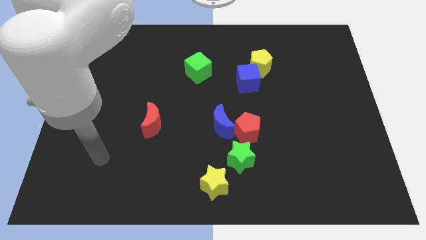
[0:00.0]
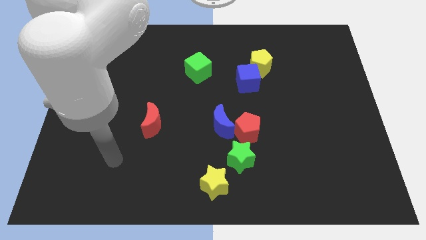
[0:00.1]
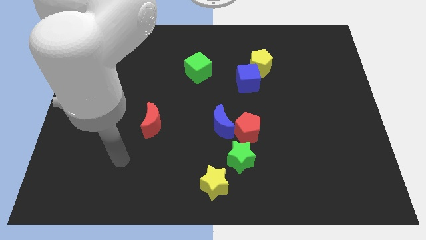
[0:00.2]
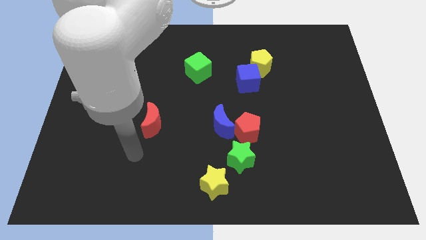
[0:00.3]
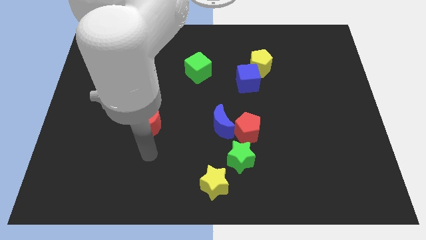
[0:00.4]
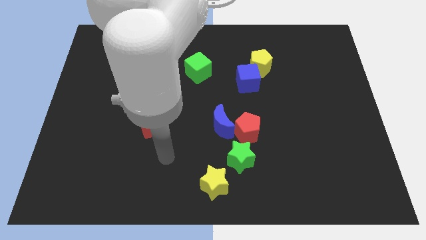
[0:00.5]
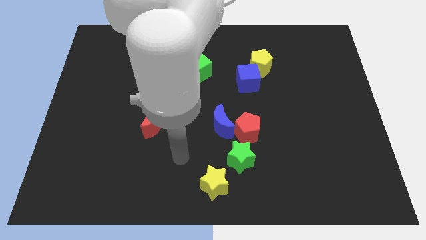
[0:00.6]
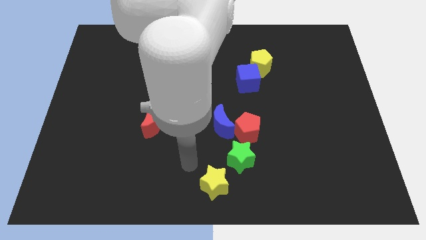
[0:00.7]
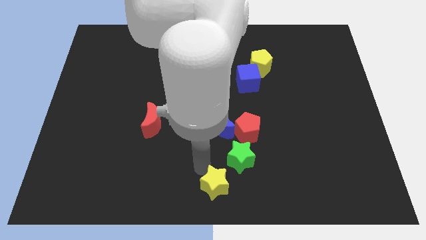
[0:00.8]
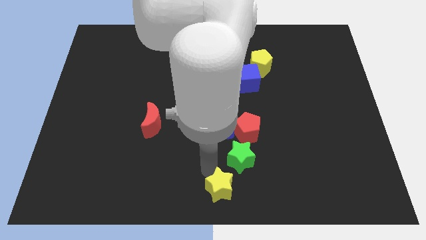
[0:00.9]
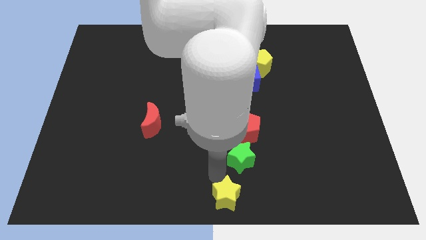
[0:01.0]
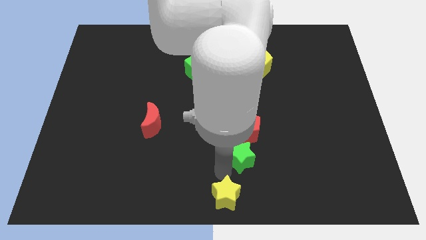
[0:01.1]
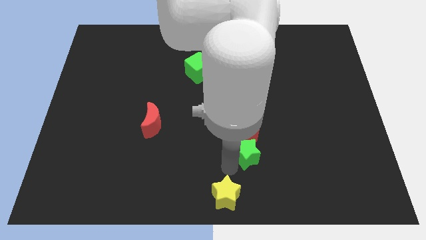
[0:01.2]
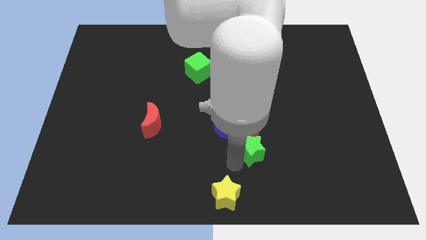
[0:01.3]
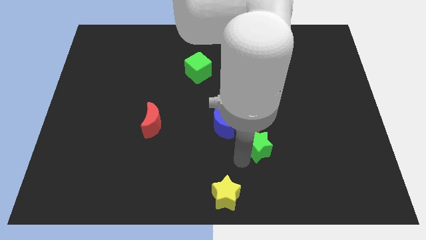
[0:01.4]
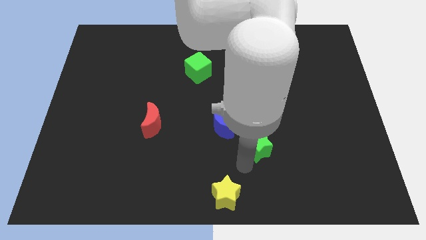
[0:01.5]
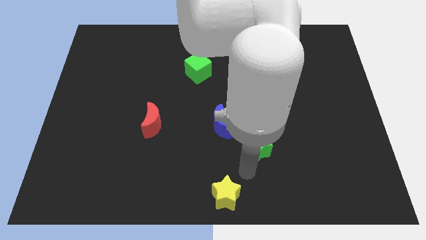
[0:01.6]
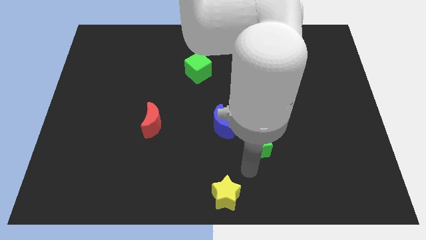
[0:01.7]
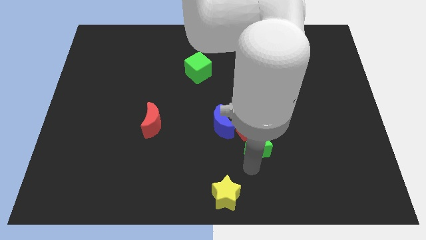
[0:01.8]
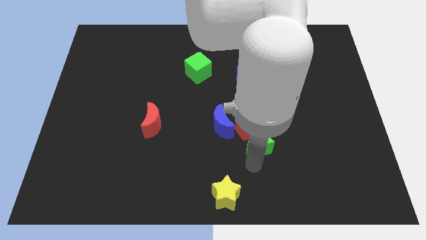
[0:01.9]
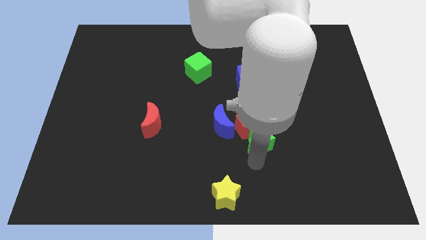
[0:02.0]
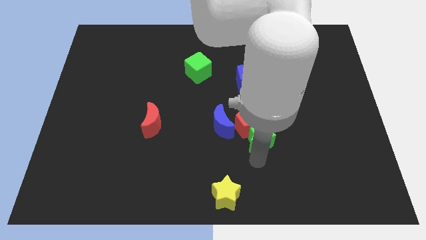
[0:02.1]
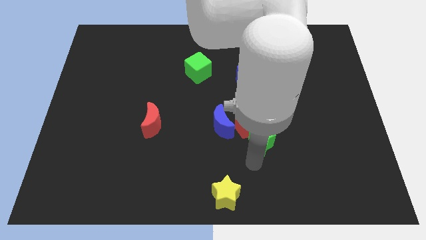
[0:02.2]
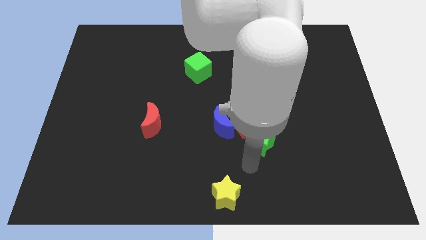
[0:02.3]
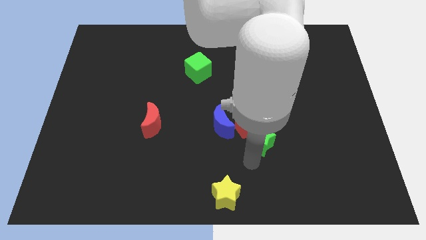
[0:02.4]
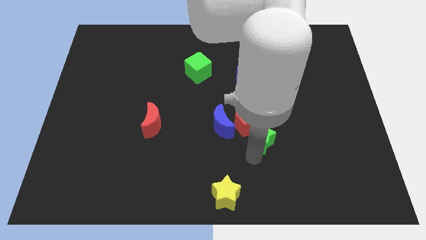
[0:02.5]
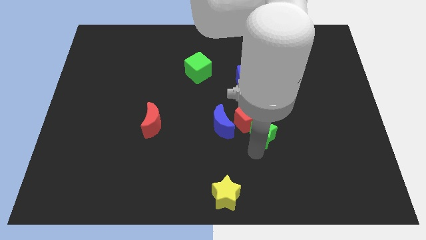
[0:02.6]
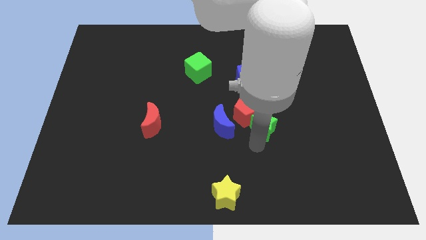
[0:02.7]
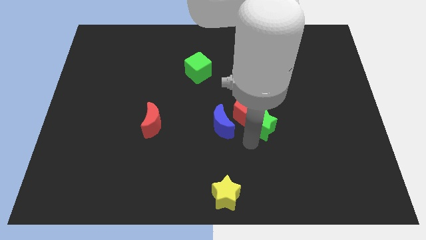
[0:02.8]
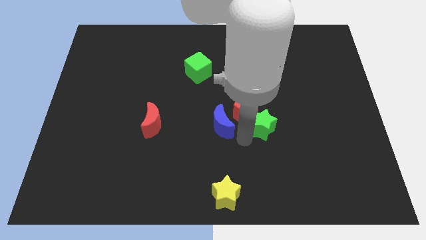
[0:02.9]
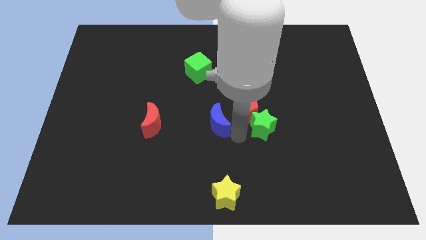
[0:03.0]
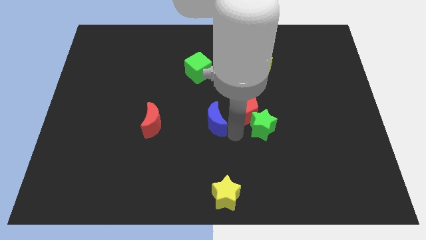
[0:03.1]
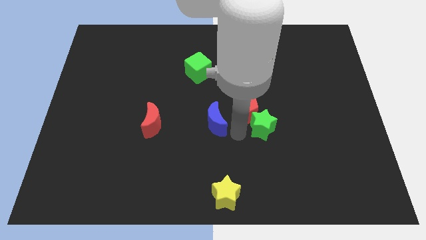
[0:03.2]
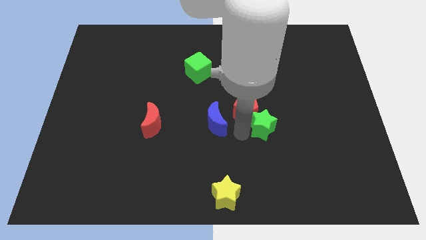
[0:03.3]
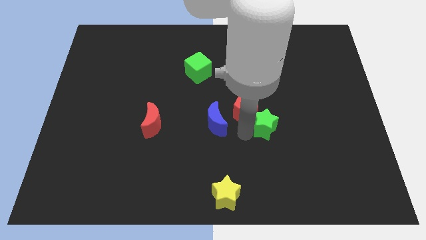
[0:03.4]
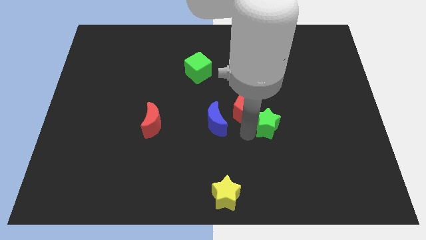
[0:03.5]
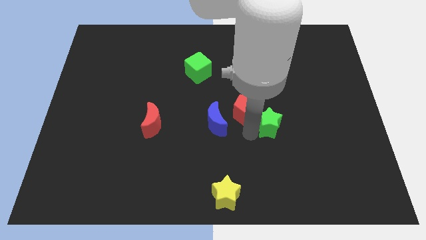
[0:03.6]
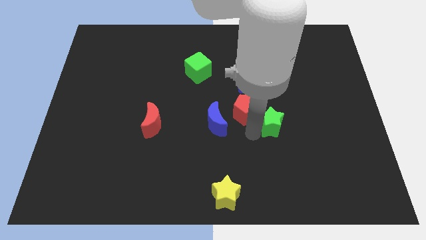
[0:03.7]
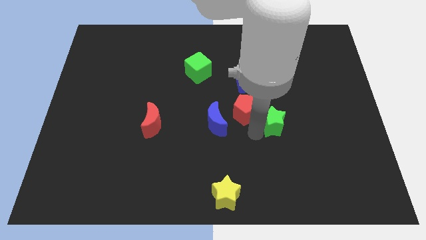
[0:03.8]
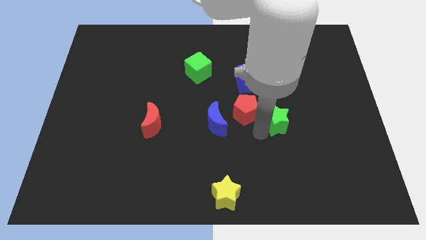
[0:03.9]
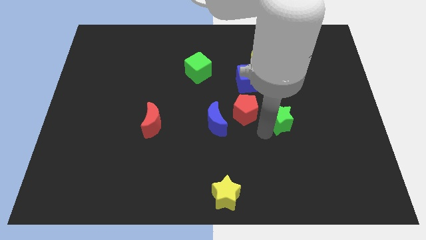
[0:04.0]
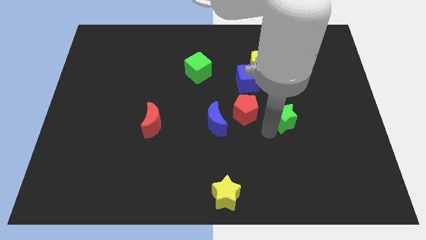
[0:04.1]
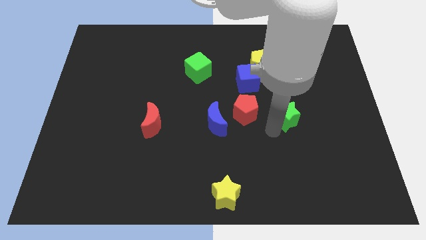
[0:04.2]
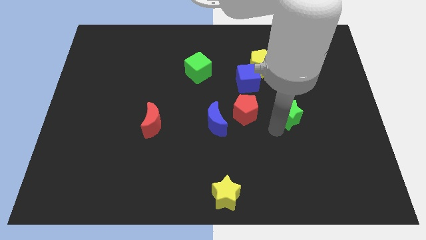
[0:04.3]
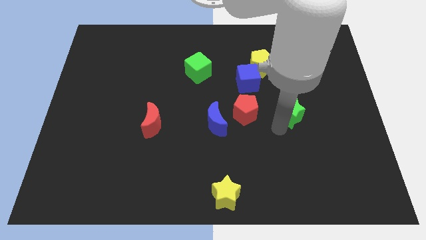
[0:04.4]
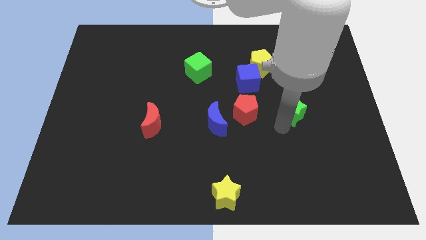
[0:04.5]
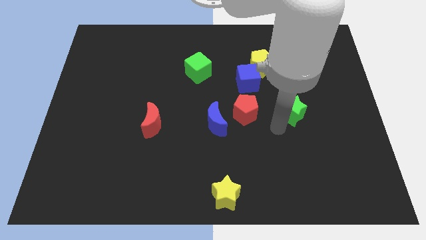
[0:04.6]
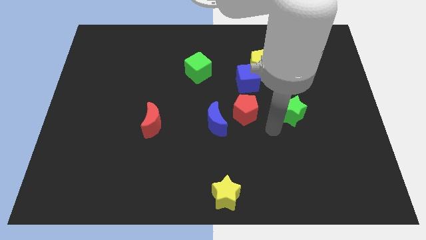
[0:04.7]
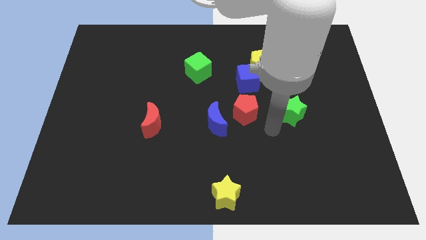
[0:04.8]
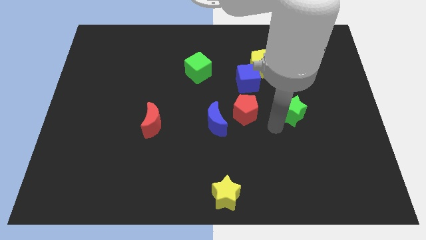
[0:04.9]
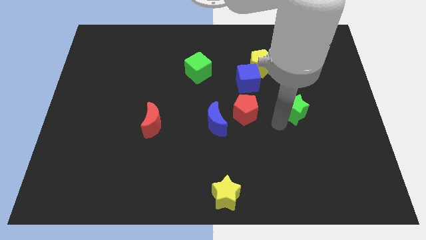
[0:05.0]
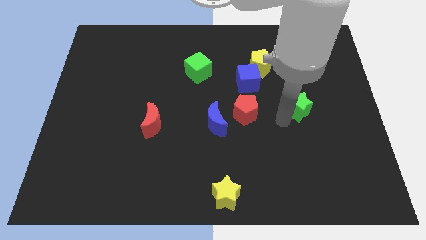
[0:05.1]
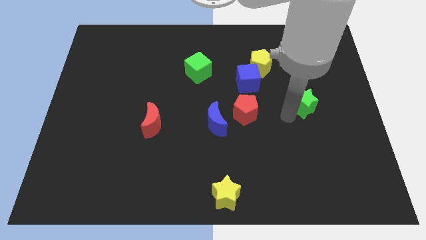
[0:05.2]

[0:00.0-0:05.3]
push the green star up and right diagonally

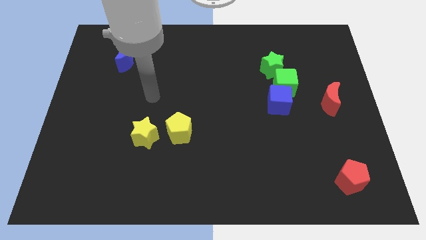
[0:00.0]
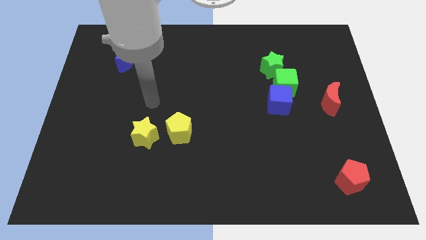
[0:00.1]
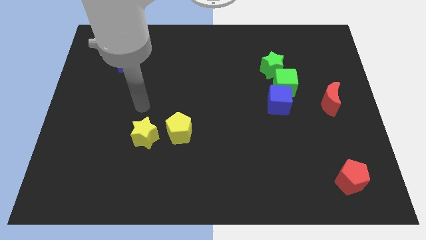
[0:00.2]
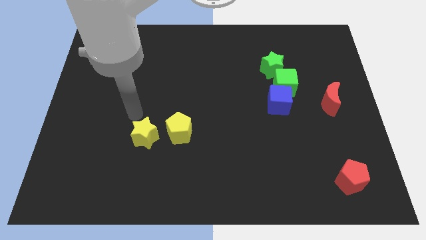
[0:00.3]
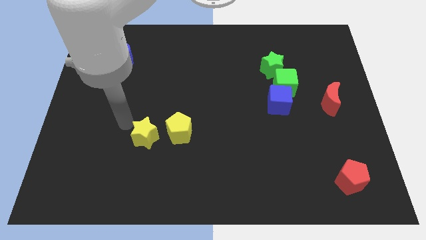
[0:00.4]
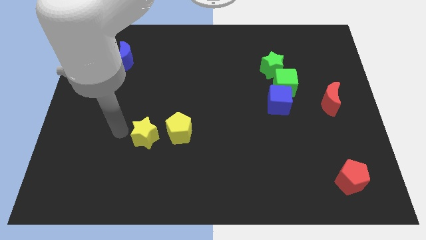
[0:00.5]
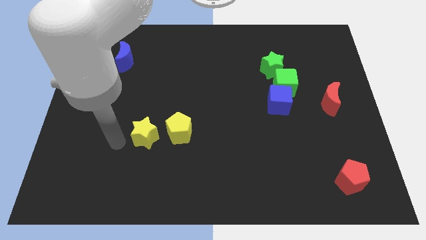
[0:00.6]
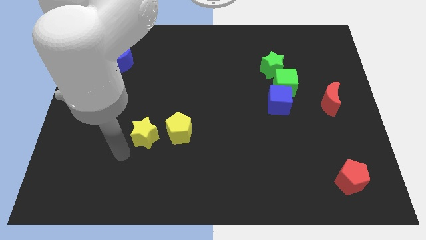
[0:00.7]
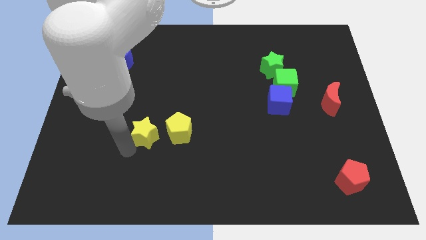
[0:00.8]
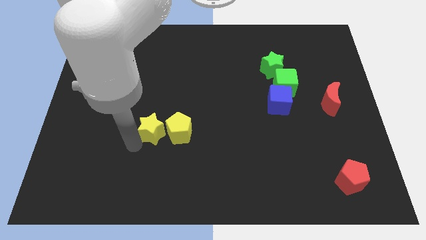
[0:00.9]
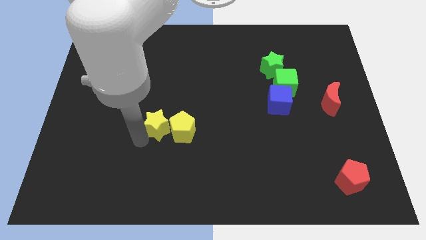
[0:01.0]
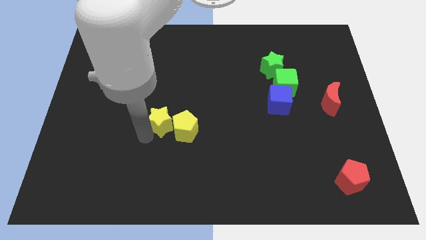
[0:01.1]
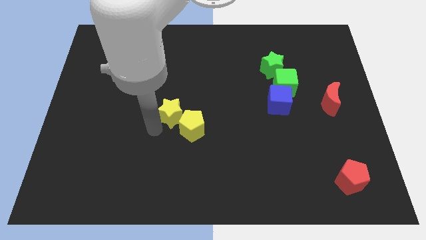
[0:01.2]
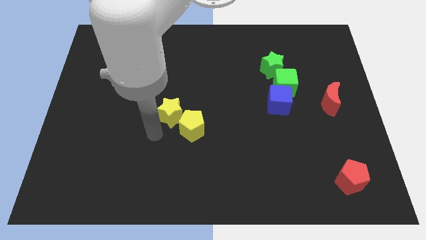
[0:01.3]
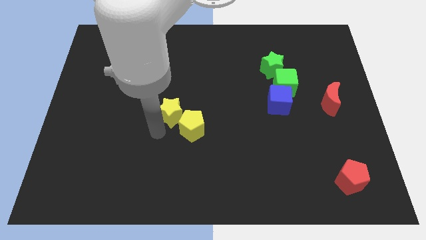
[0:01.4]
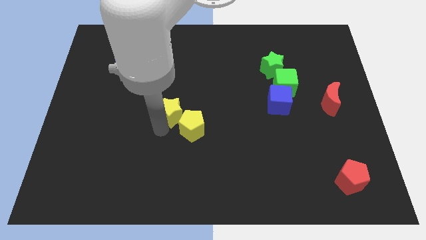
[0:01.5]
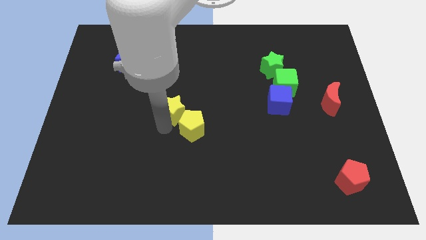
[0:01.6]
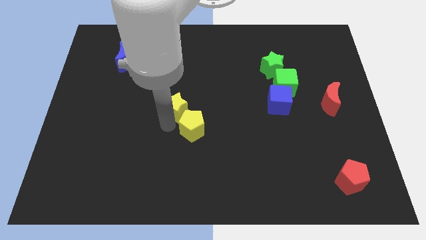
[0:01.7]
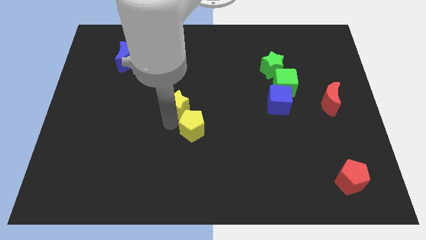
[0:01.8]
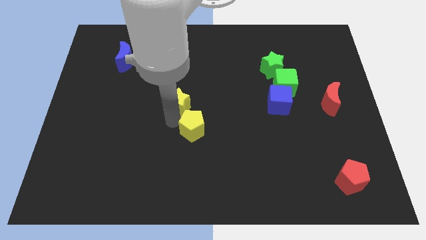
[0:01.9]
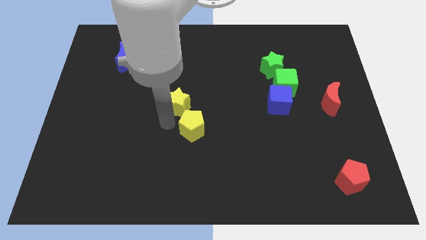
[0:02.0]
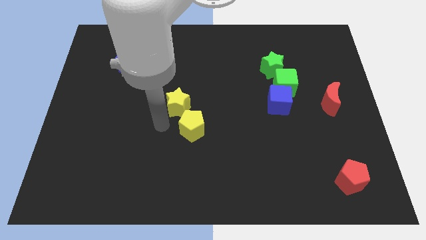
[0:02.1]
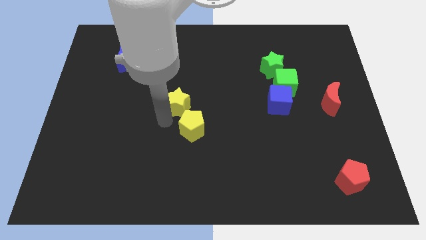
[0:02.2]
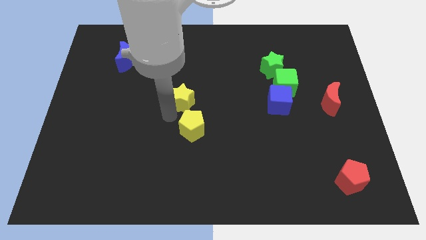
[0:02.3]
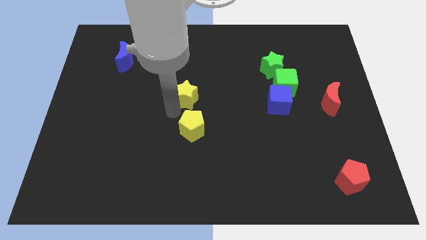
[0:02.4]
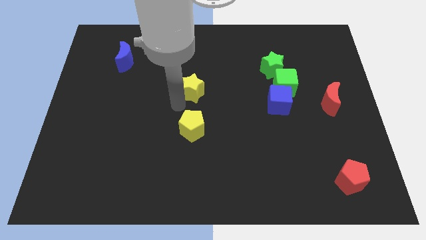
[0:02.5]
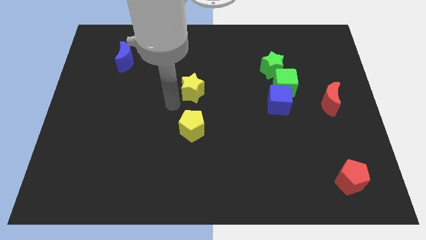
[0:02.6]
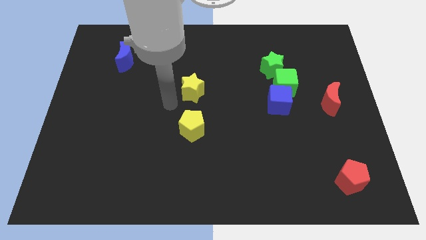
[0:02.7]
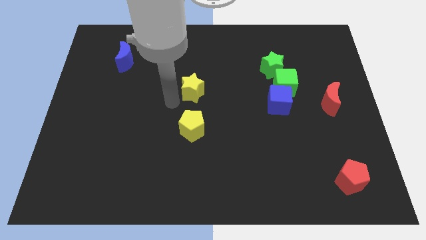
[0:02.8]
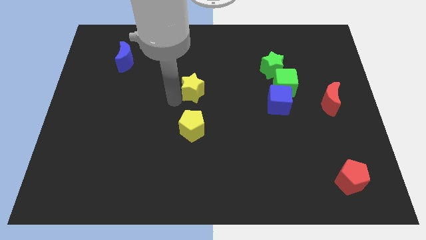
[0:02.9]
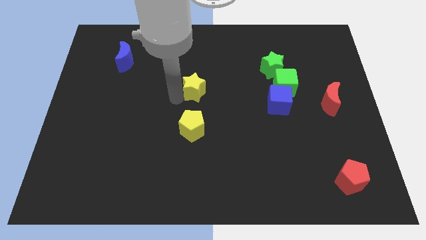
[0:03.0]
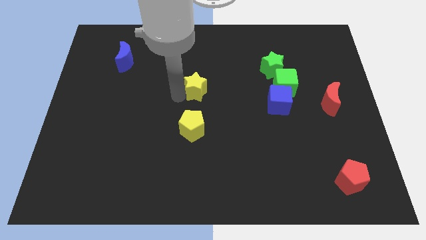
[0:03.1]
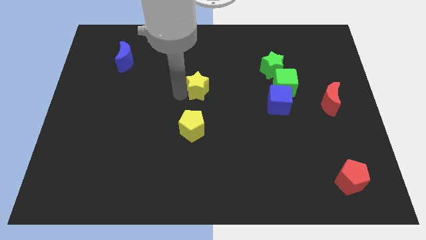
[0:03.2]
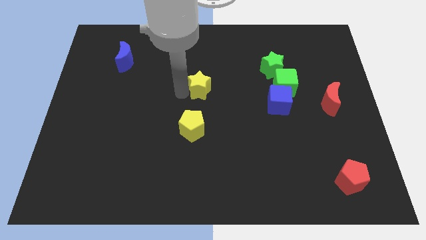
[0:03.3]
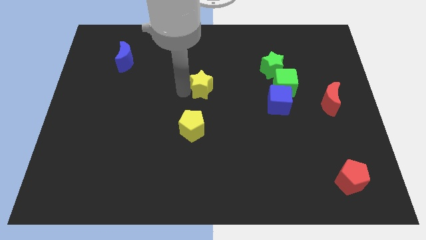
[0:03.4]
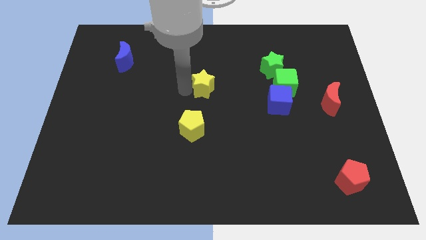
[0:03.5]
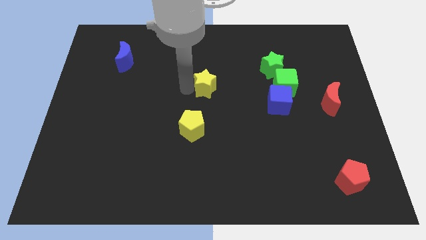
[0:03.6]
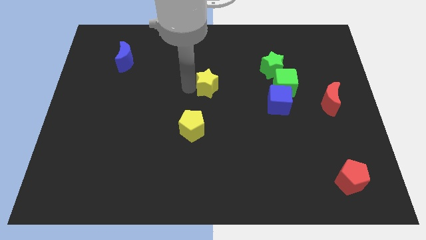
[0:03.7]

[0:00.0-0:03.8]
slide the yellow star up and to the right
